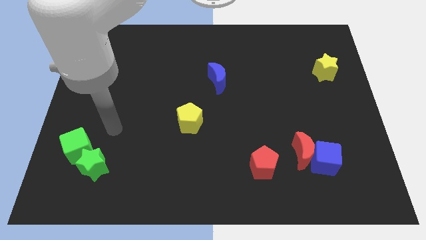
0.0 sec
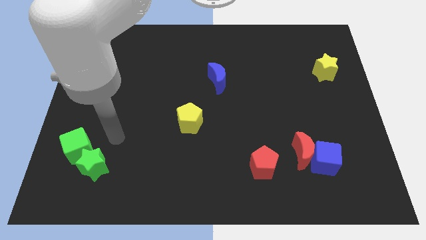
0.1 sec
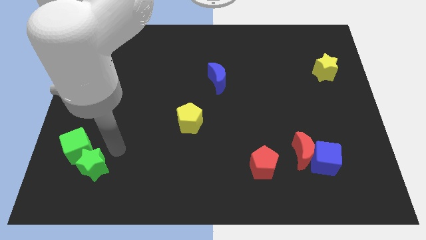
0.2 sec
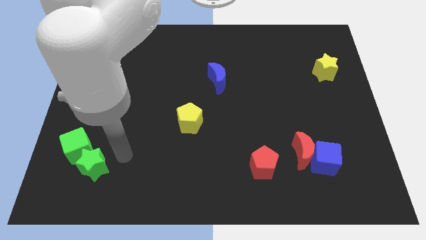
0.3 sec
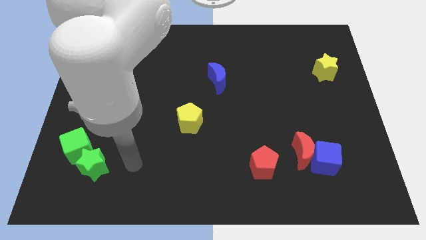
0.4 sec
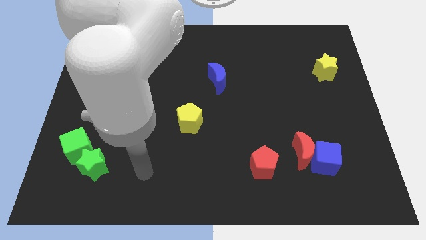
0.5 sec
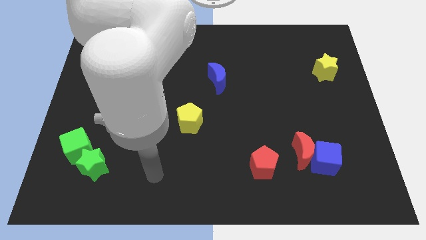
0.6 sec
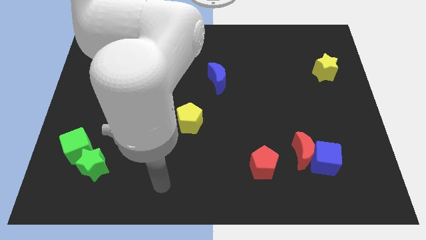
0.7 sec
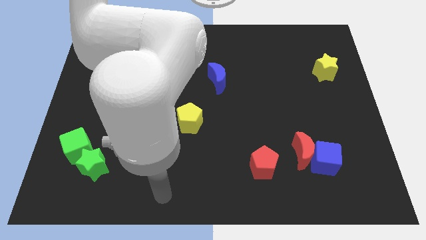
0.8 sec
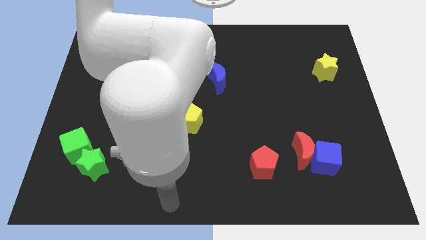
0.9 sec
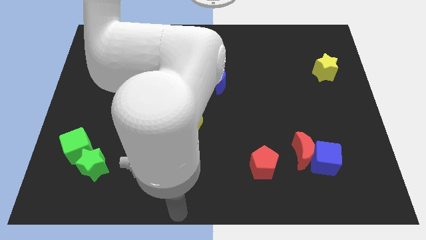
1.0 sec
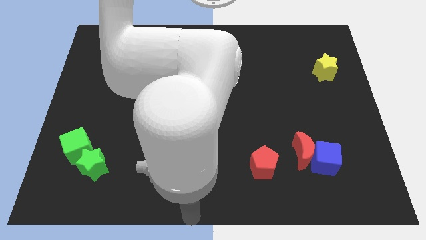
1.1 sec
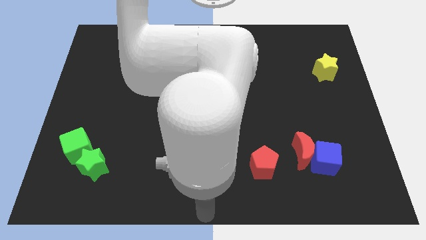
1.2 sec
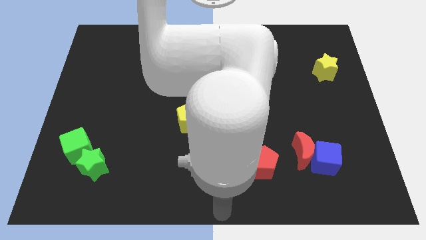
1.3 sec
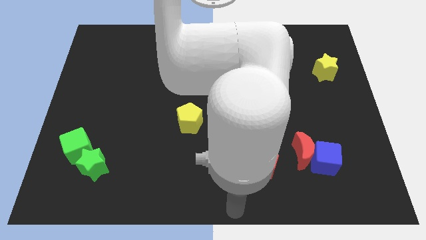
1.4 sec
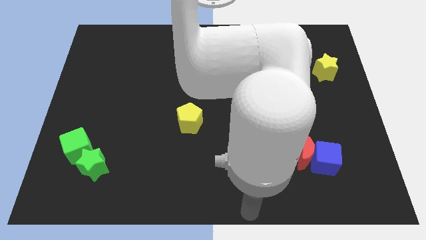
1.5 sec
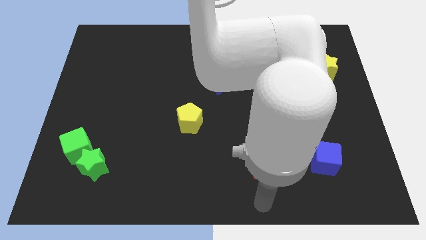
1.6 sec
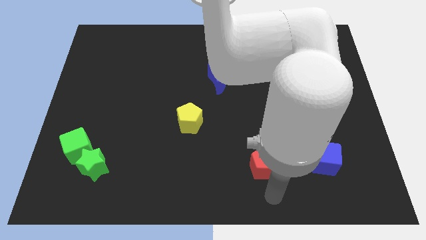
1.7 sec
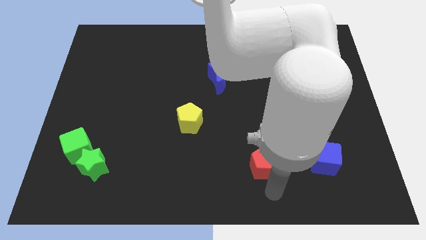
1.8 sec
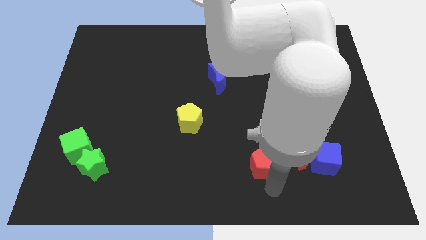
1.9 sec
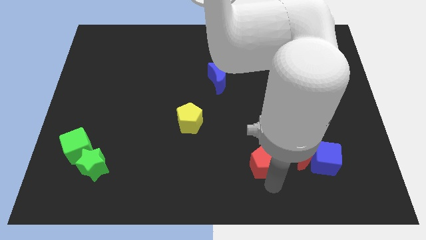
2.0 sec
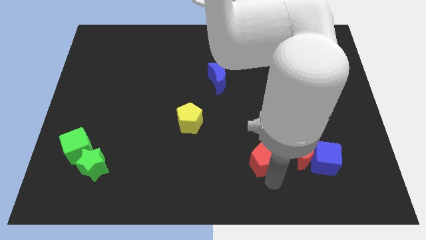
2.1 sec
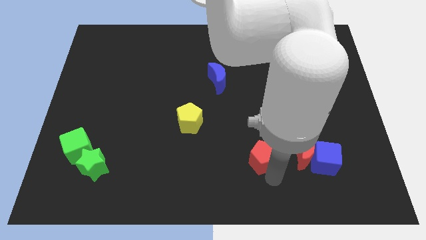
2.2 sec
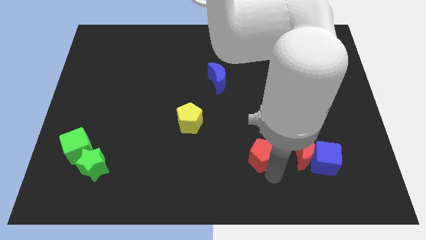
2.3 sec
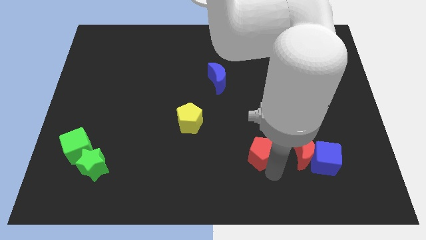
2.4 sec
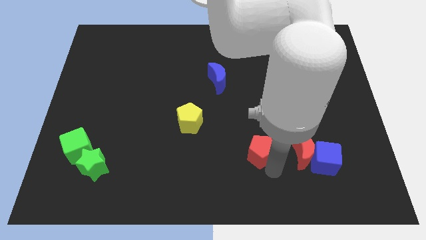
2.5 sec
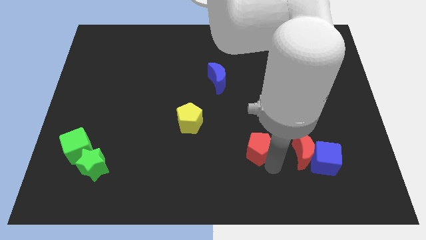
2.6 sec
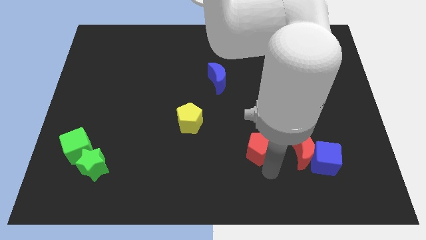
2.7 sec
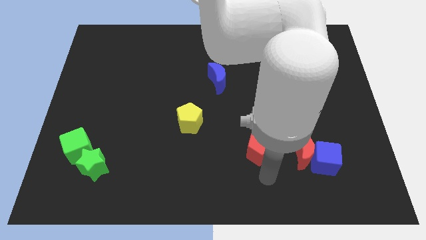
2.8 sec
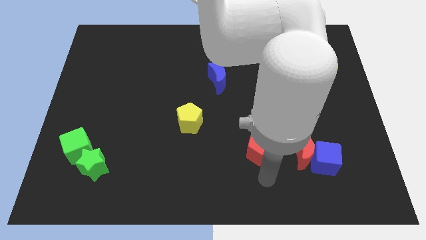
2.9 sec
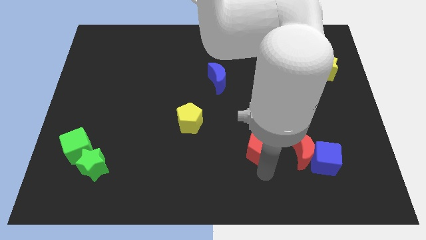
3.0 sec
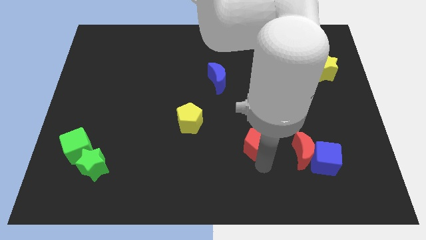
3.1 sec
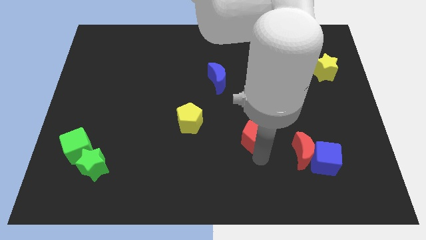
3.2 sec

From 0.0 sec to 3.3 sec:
push the red pentagon slightly up

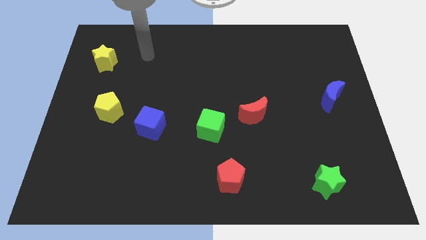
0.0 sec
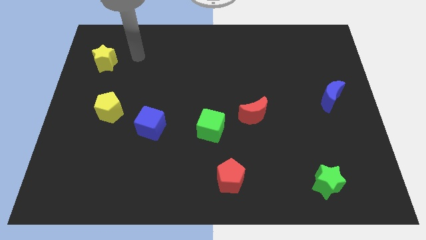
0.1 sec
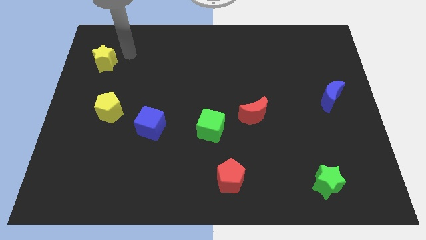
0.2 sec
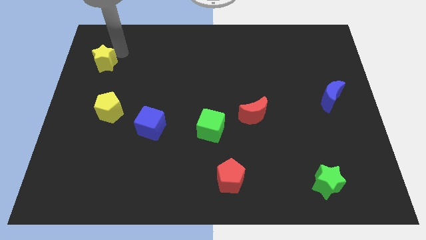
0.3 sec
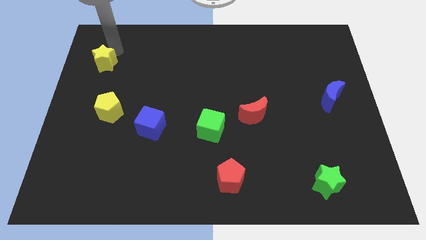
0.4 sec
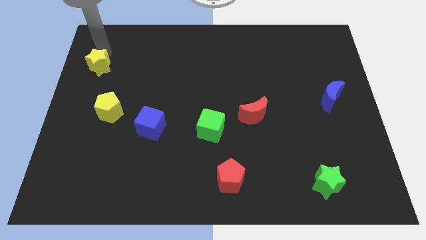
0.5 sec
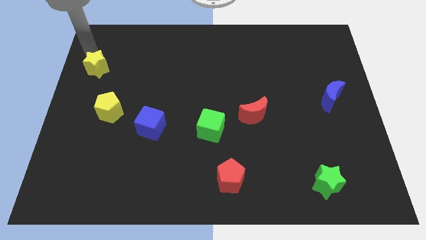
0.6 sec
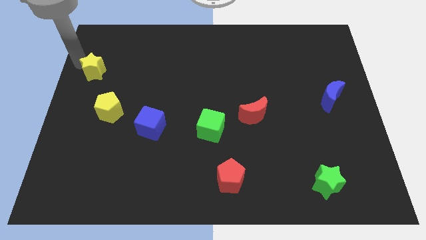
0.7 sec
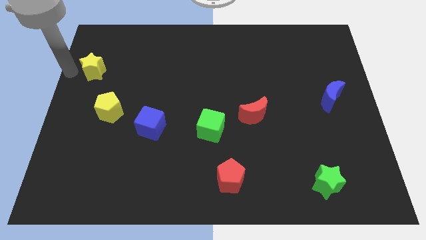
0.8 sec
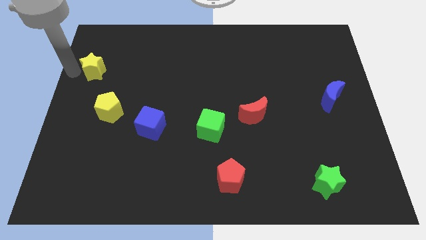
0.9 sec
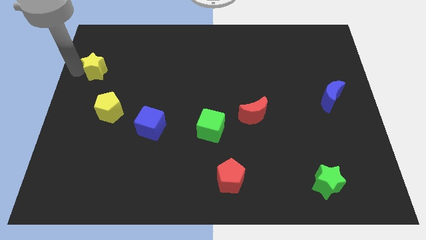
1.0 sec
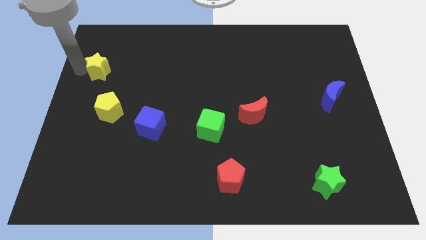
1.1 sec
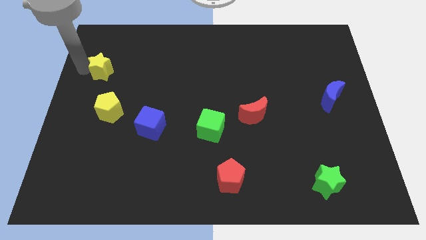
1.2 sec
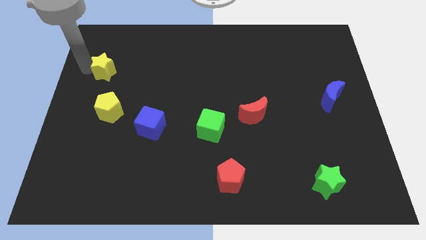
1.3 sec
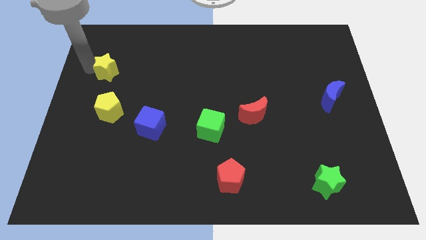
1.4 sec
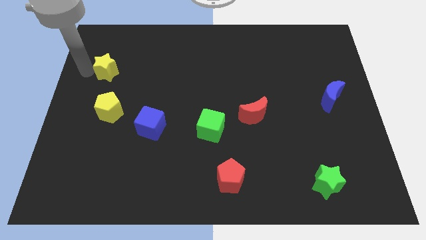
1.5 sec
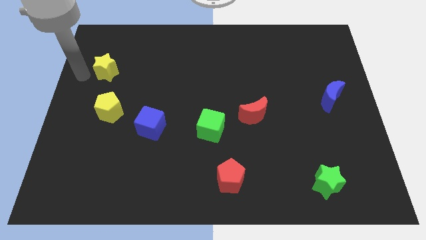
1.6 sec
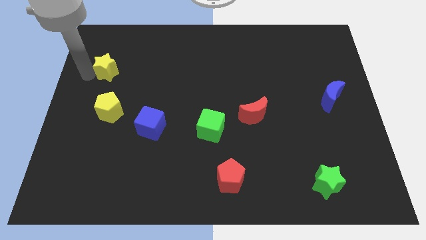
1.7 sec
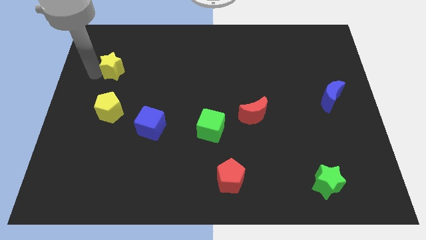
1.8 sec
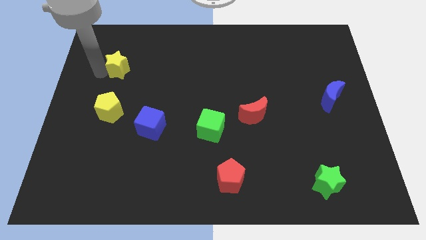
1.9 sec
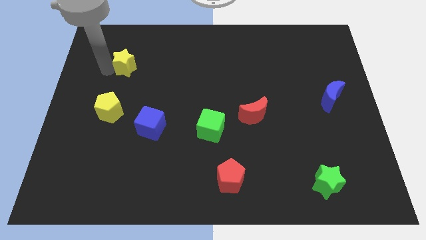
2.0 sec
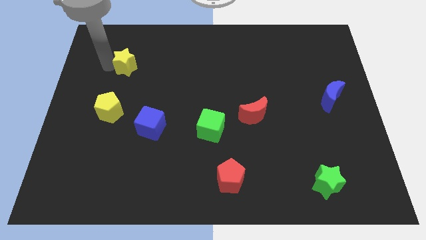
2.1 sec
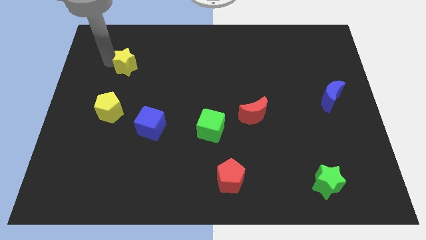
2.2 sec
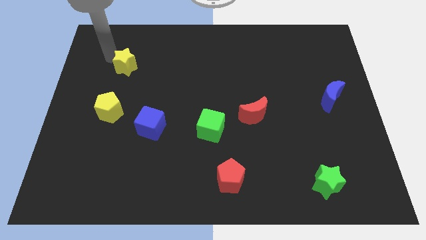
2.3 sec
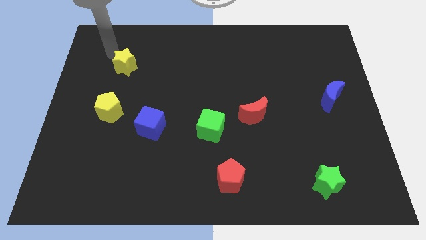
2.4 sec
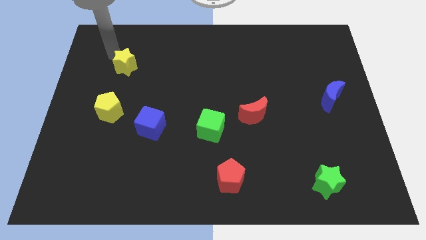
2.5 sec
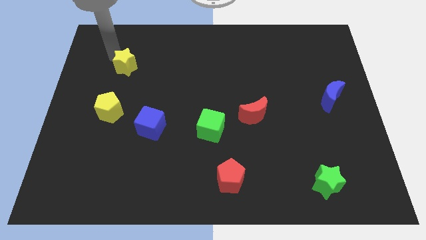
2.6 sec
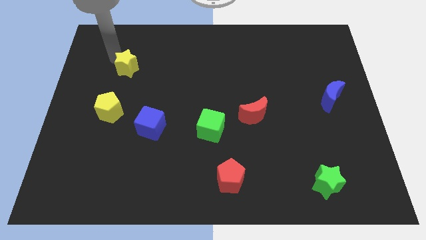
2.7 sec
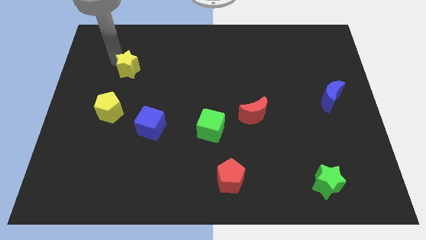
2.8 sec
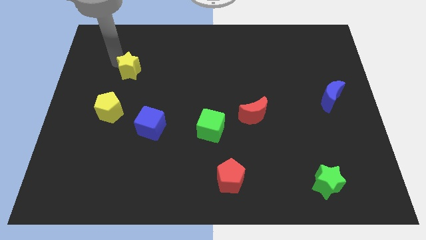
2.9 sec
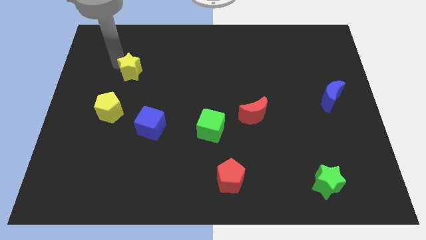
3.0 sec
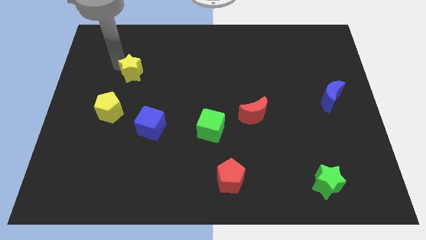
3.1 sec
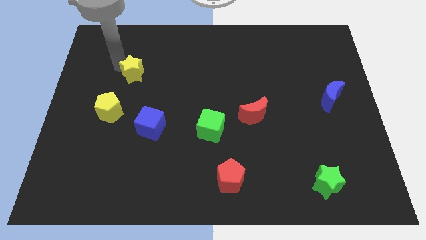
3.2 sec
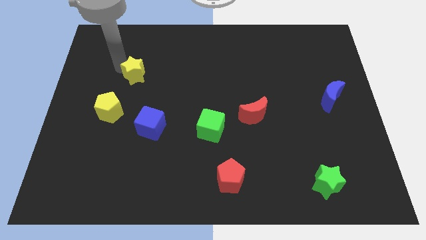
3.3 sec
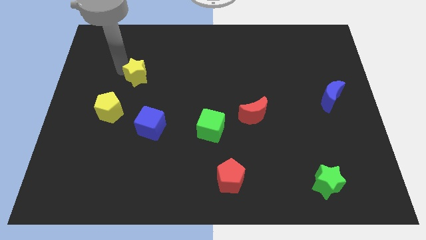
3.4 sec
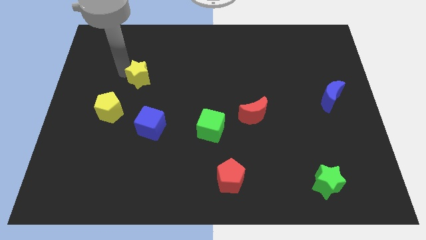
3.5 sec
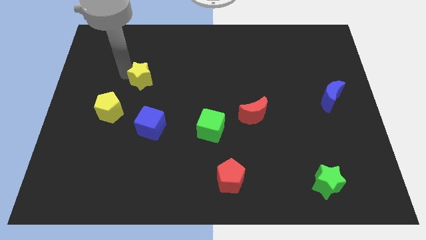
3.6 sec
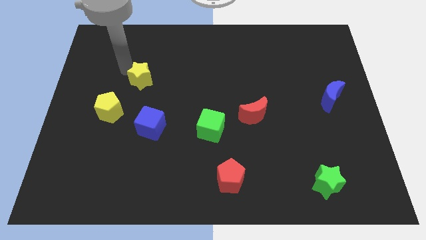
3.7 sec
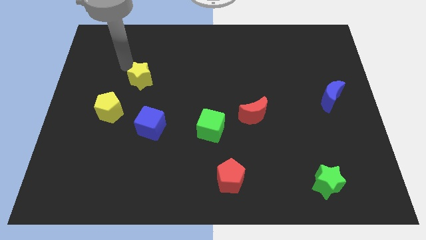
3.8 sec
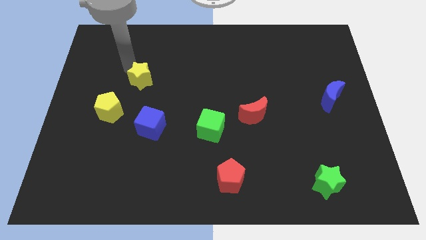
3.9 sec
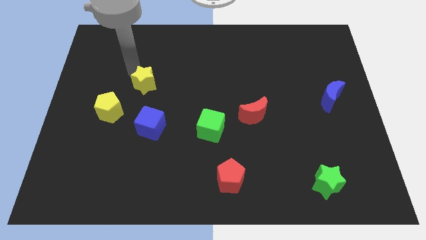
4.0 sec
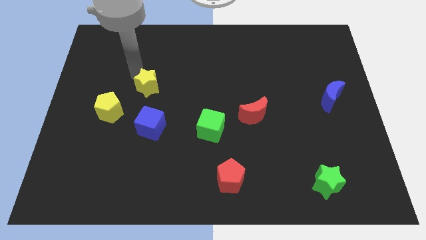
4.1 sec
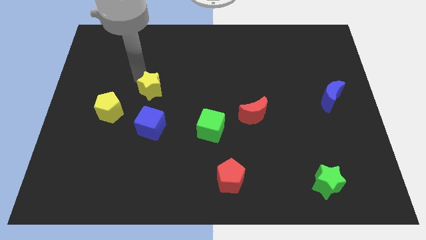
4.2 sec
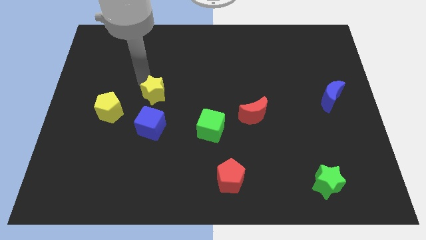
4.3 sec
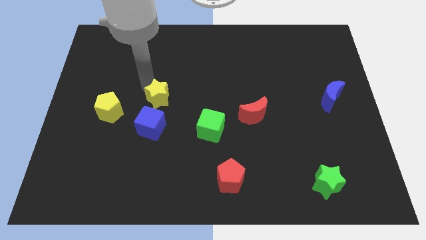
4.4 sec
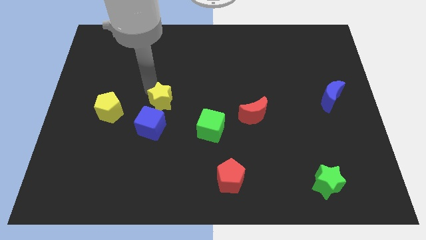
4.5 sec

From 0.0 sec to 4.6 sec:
slide the yellow star diagonally down and right

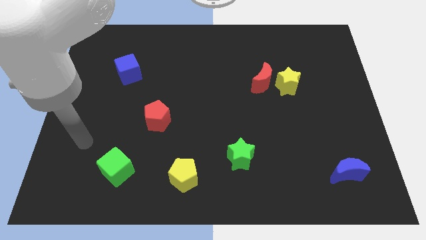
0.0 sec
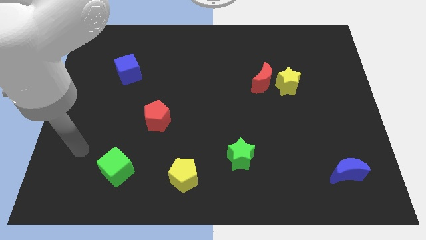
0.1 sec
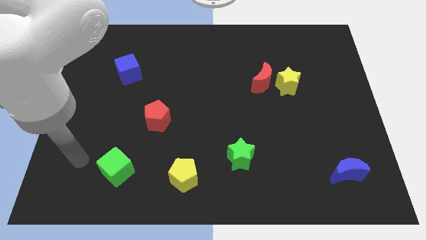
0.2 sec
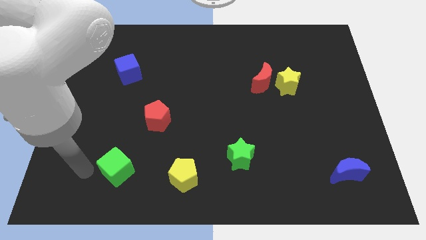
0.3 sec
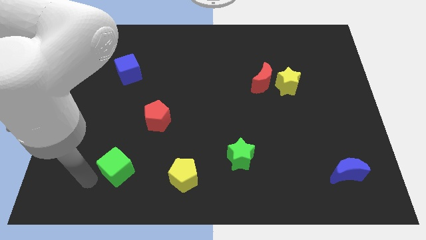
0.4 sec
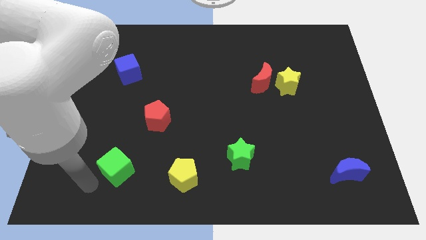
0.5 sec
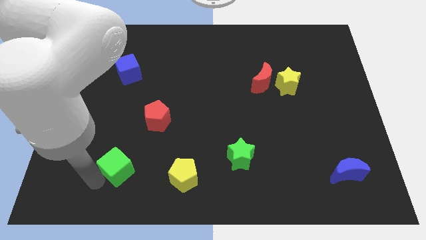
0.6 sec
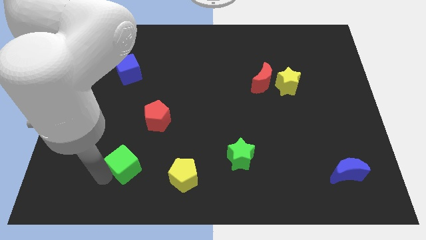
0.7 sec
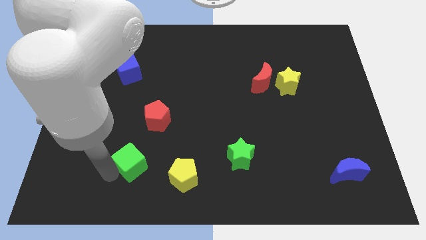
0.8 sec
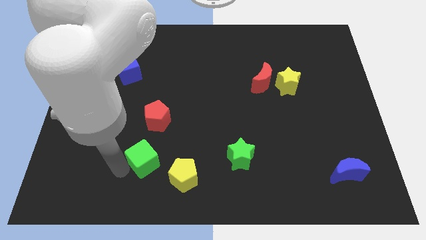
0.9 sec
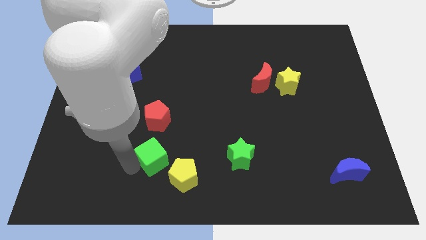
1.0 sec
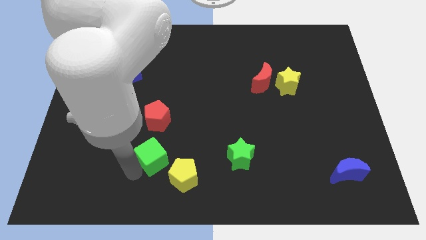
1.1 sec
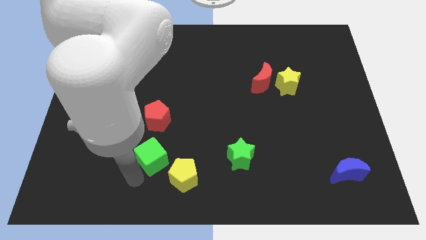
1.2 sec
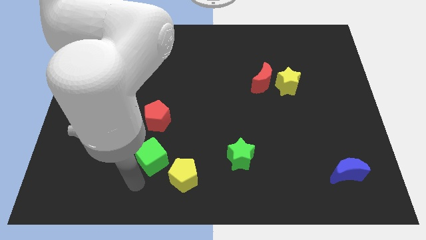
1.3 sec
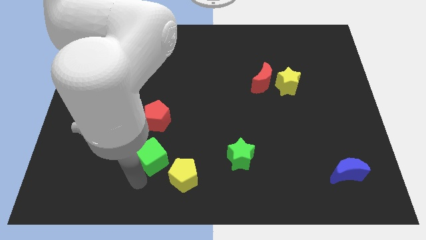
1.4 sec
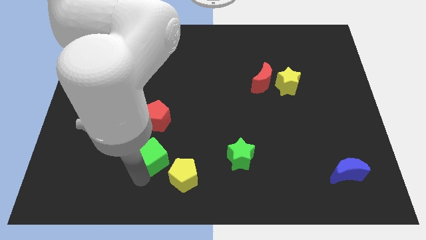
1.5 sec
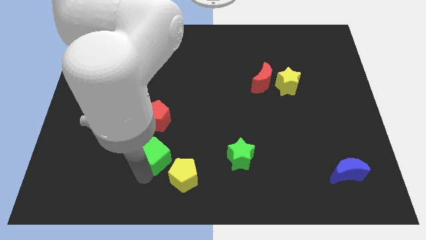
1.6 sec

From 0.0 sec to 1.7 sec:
slightly slide the green cube upwards and then right
